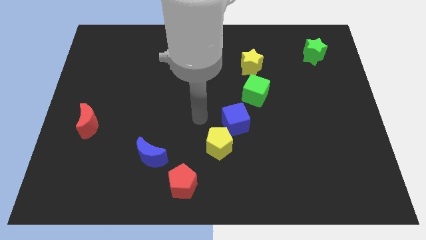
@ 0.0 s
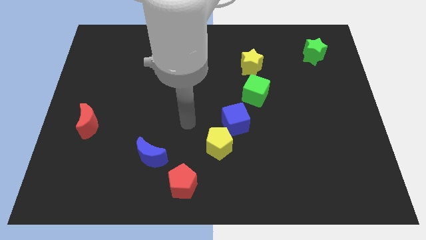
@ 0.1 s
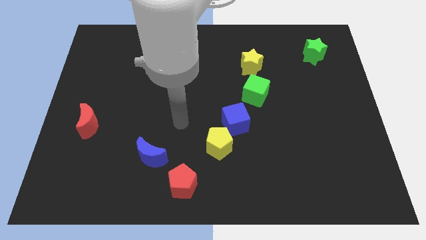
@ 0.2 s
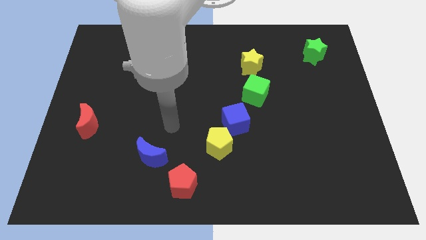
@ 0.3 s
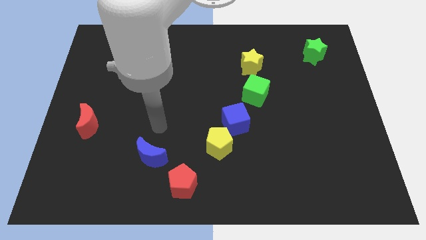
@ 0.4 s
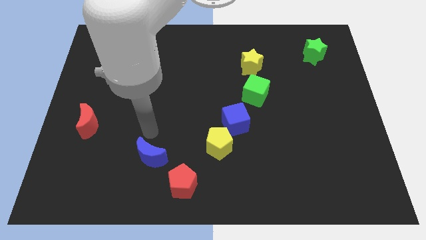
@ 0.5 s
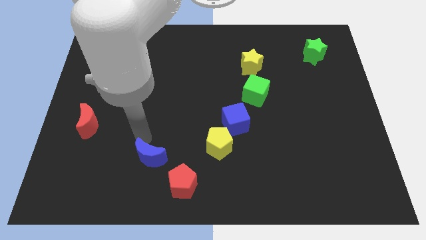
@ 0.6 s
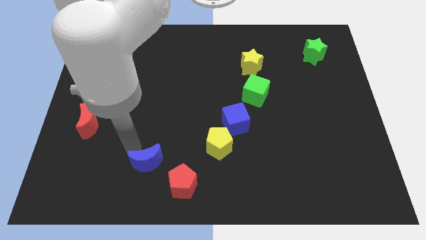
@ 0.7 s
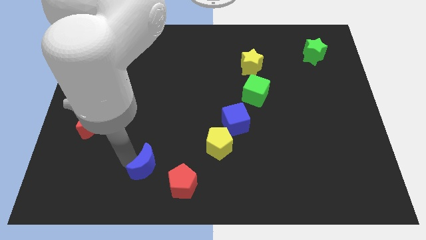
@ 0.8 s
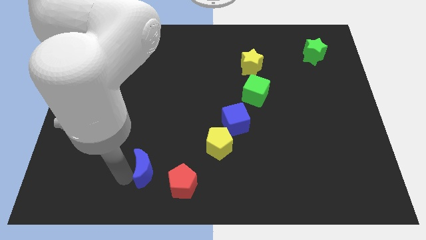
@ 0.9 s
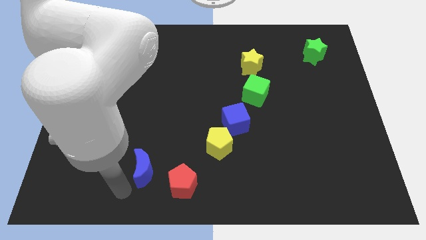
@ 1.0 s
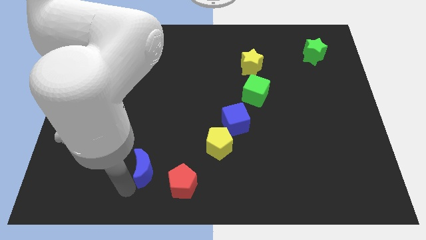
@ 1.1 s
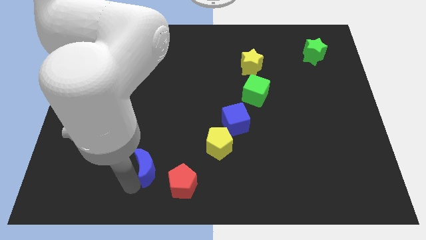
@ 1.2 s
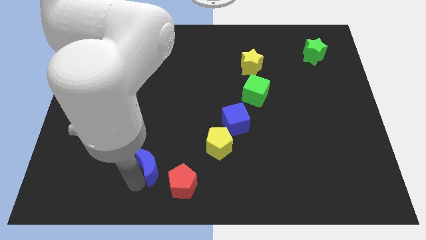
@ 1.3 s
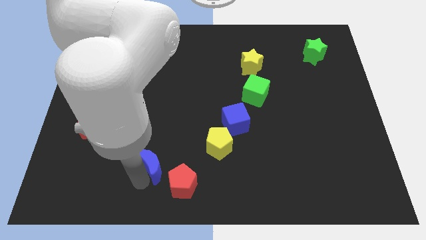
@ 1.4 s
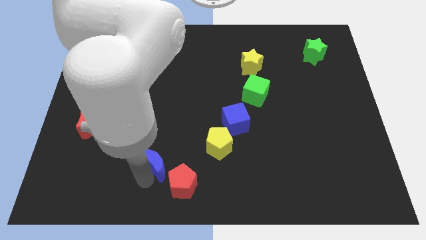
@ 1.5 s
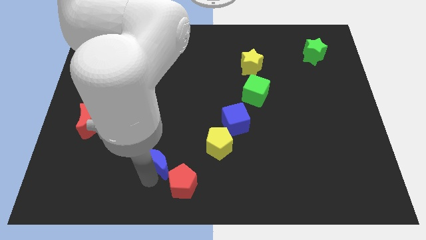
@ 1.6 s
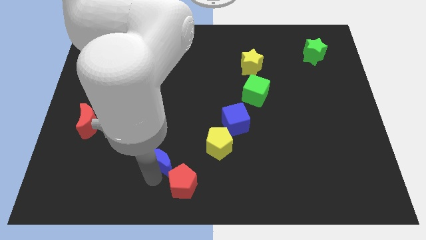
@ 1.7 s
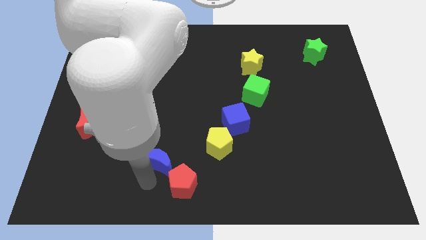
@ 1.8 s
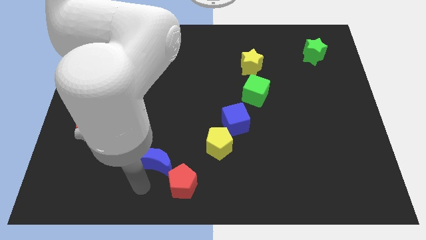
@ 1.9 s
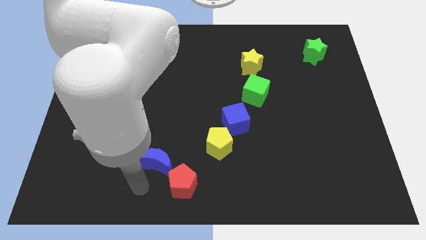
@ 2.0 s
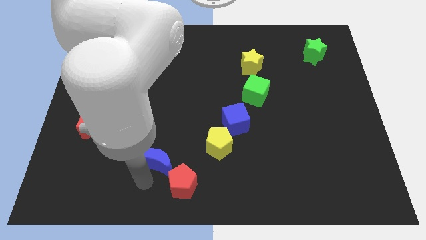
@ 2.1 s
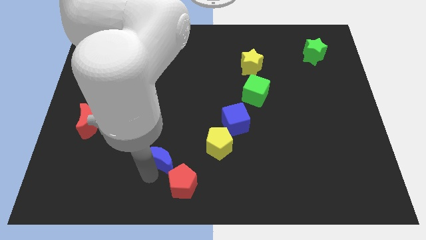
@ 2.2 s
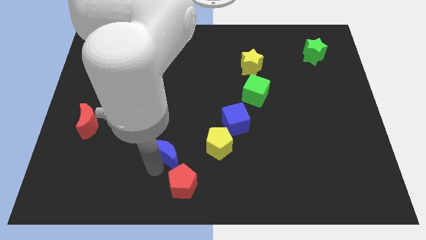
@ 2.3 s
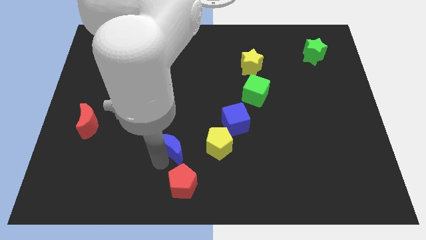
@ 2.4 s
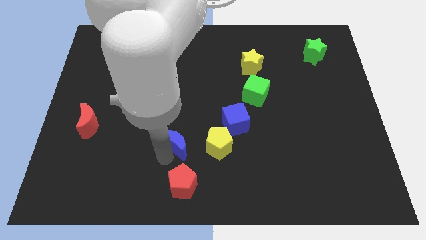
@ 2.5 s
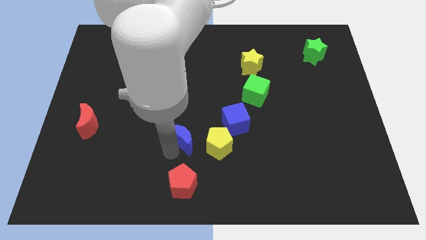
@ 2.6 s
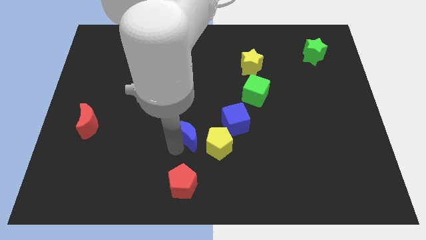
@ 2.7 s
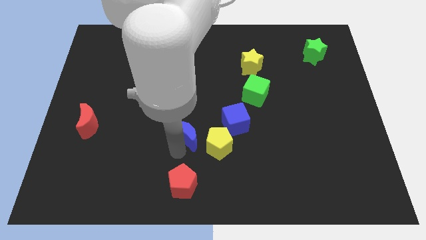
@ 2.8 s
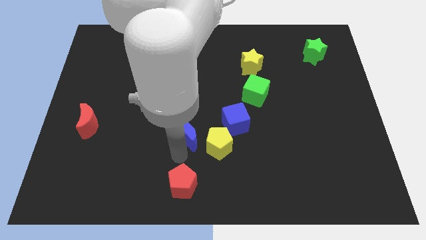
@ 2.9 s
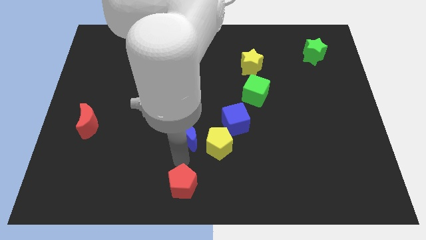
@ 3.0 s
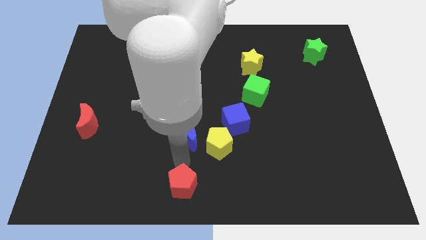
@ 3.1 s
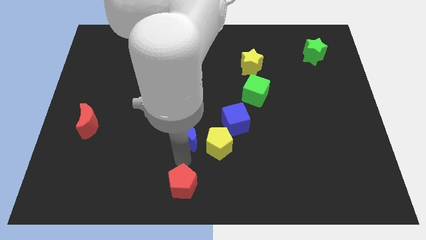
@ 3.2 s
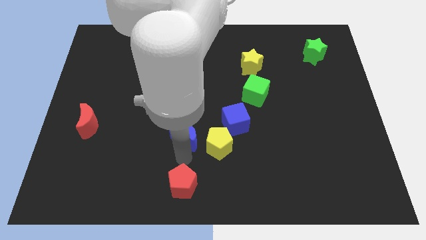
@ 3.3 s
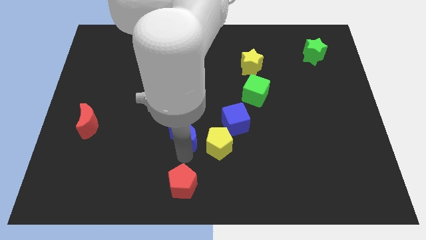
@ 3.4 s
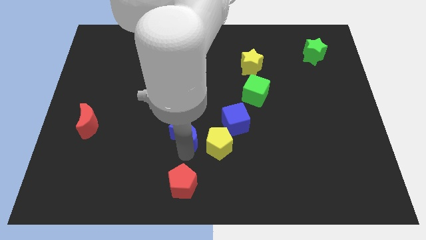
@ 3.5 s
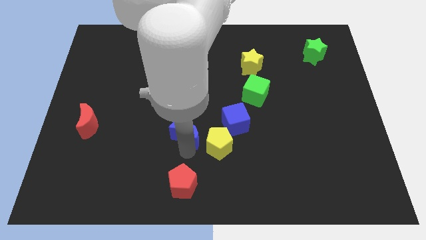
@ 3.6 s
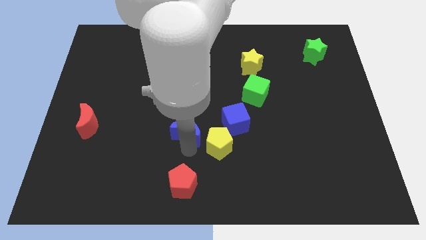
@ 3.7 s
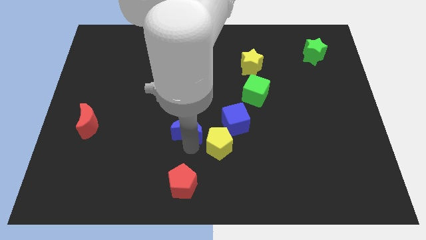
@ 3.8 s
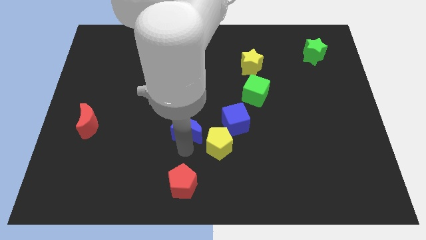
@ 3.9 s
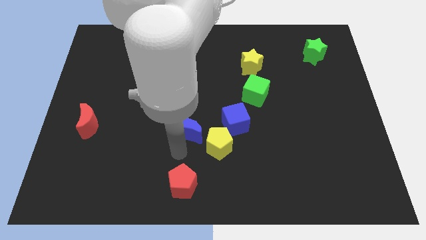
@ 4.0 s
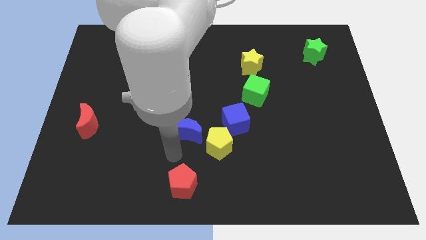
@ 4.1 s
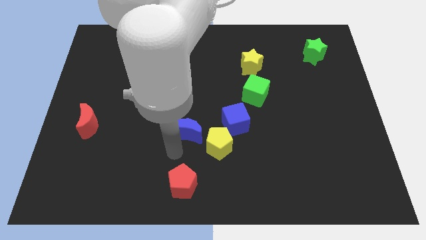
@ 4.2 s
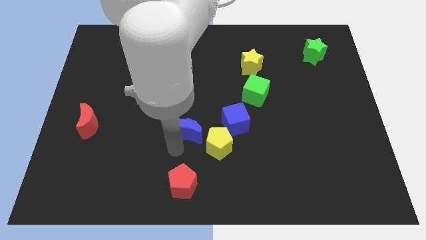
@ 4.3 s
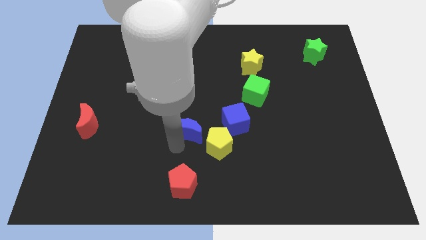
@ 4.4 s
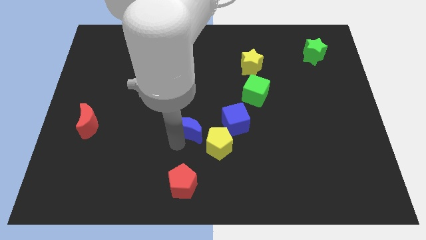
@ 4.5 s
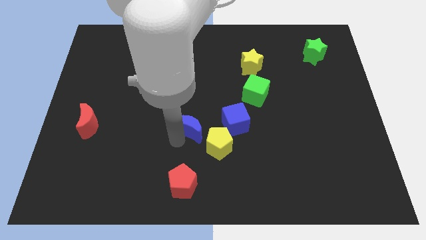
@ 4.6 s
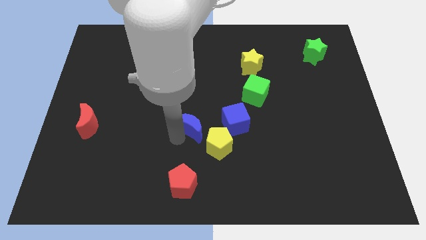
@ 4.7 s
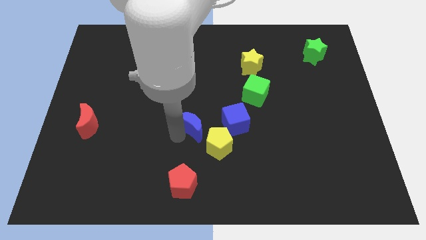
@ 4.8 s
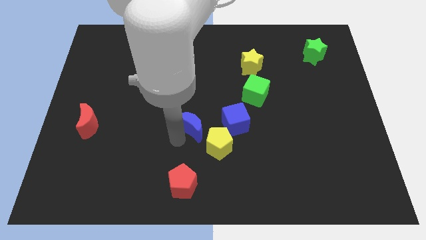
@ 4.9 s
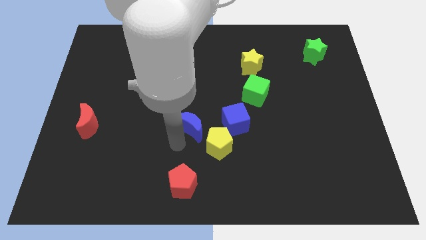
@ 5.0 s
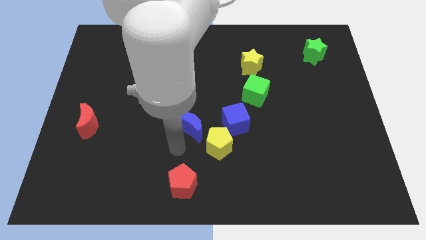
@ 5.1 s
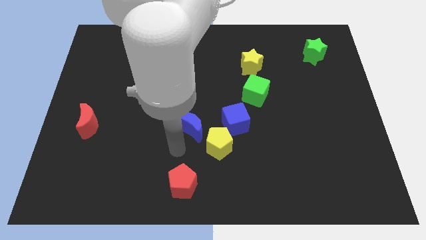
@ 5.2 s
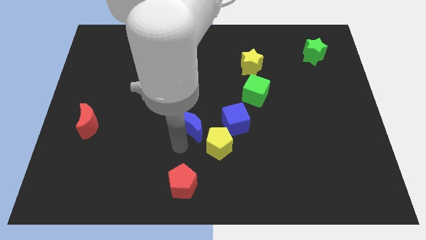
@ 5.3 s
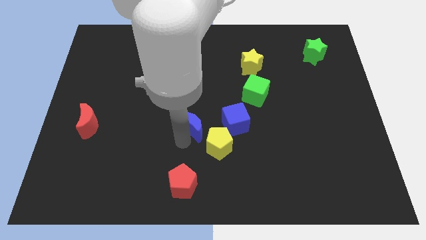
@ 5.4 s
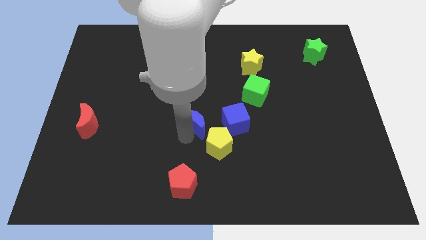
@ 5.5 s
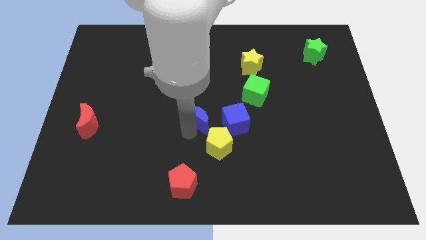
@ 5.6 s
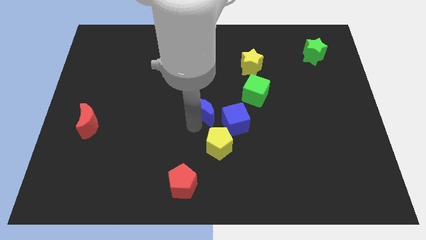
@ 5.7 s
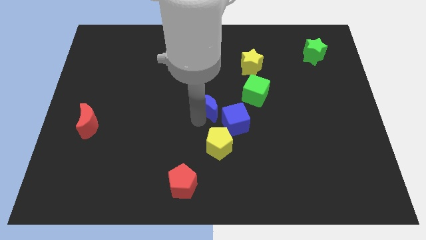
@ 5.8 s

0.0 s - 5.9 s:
slide the blue moon just left of the green cube

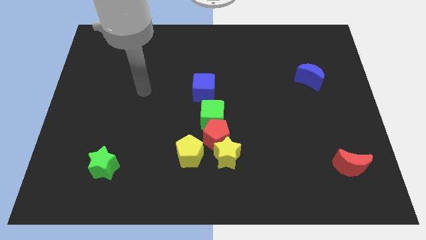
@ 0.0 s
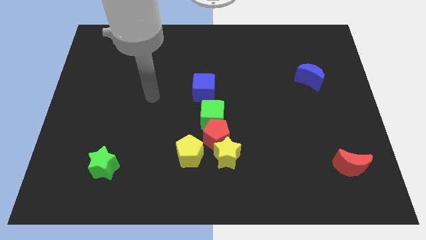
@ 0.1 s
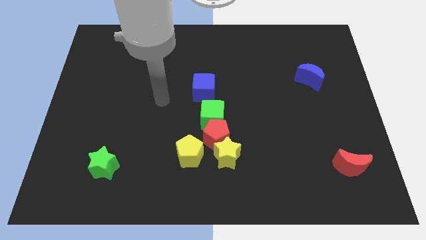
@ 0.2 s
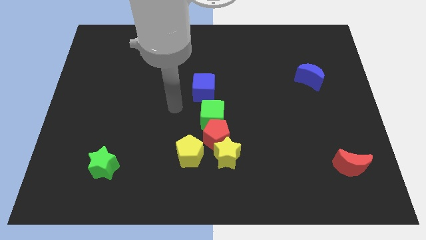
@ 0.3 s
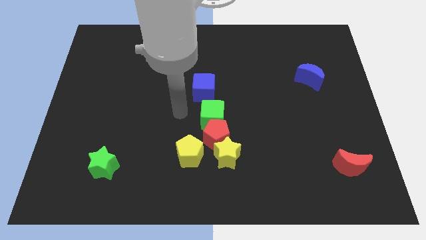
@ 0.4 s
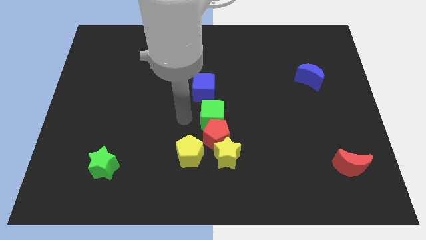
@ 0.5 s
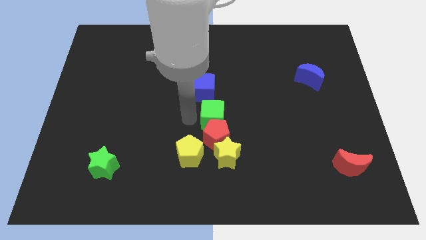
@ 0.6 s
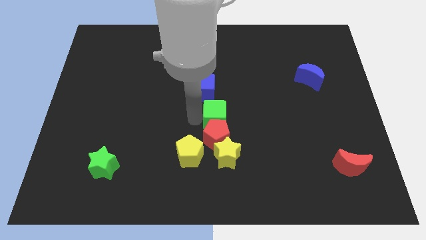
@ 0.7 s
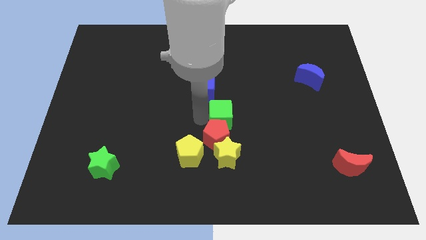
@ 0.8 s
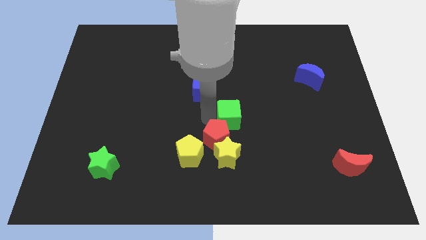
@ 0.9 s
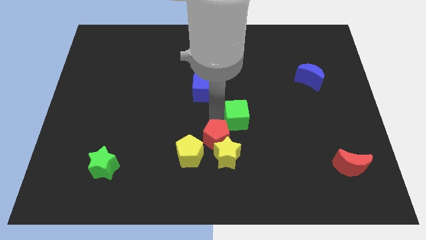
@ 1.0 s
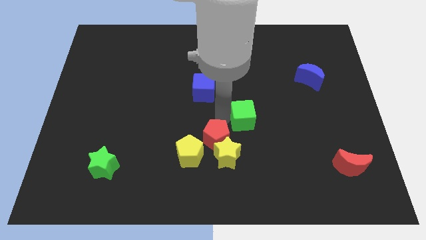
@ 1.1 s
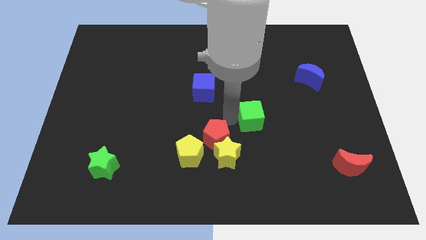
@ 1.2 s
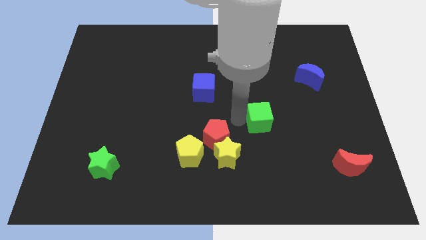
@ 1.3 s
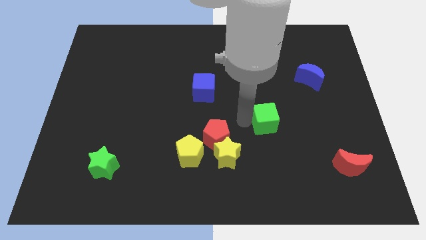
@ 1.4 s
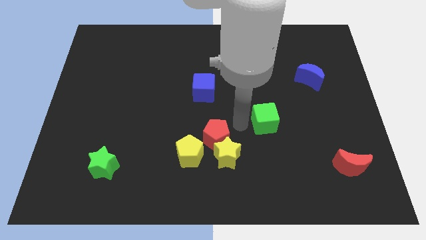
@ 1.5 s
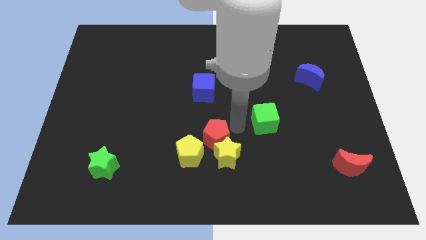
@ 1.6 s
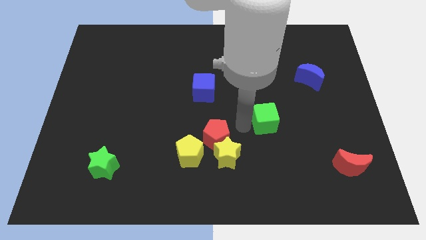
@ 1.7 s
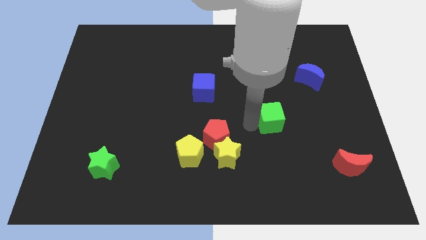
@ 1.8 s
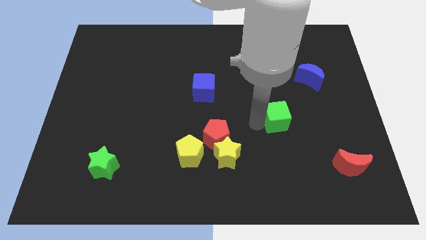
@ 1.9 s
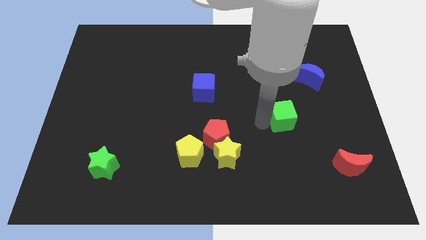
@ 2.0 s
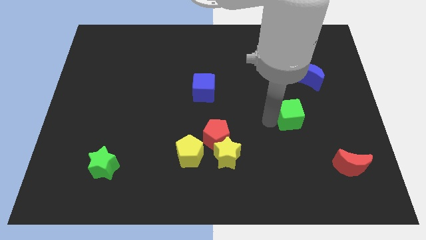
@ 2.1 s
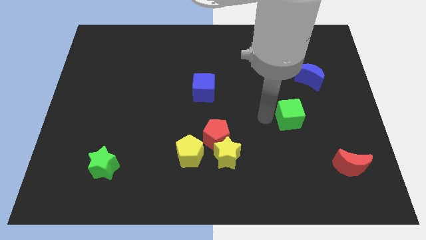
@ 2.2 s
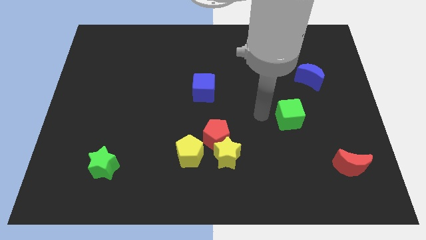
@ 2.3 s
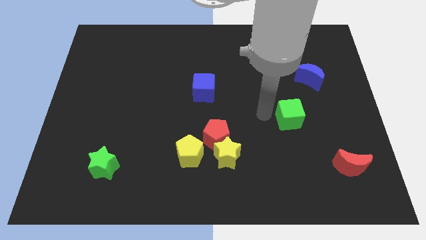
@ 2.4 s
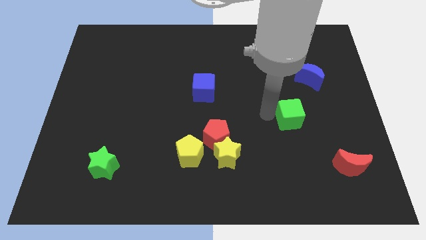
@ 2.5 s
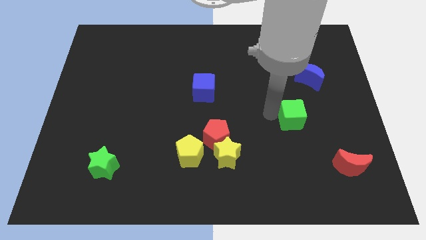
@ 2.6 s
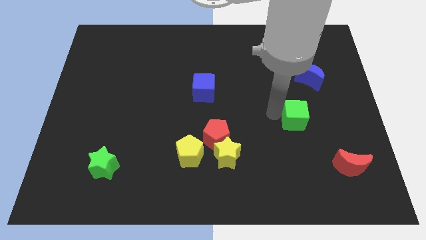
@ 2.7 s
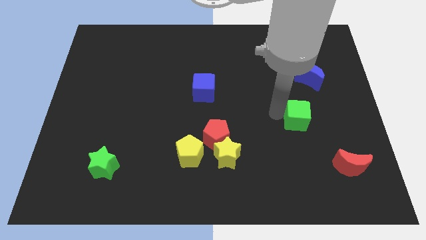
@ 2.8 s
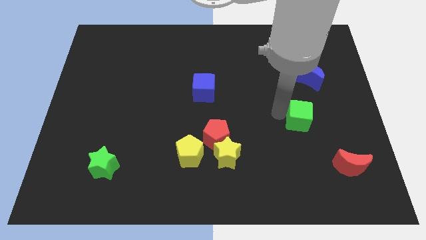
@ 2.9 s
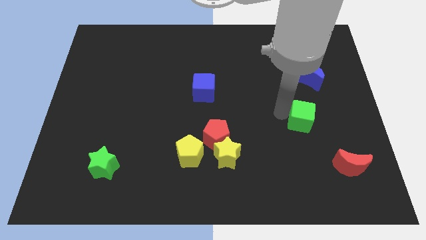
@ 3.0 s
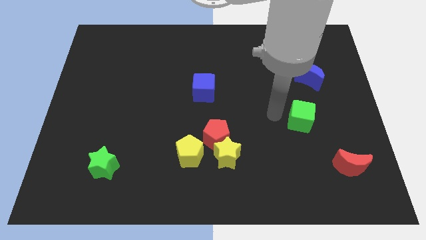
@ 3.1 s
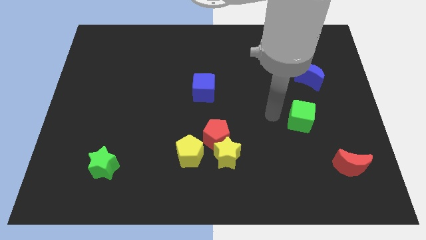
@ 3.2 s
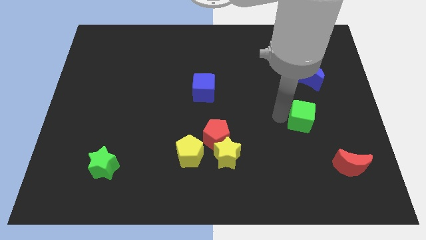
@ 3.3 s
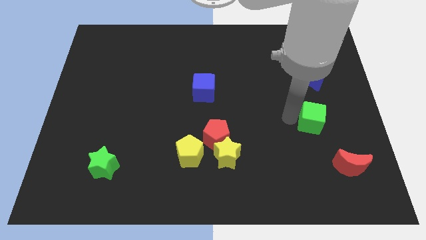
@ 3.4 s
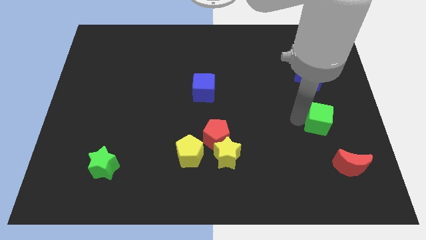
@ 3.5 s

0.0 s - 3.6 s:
put the green cube above the red moon
